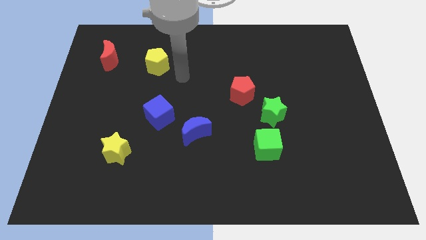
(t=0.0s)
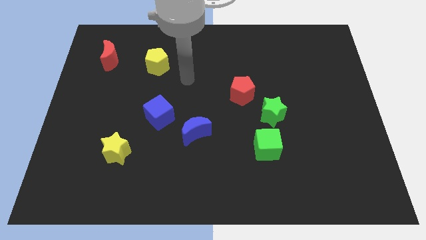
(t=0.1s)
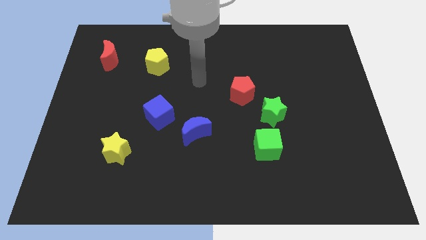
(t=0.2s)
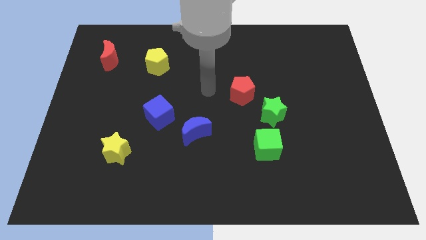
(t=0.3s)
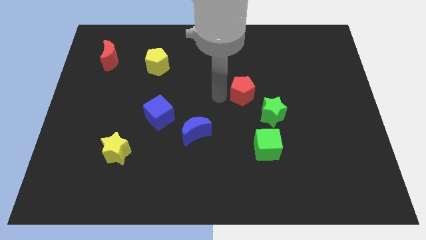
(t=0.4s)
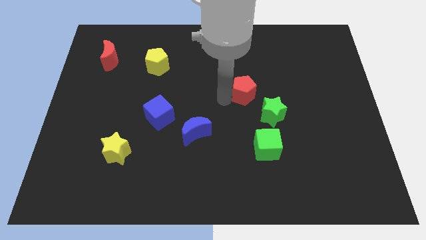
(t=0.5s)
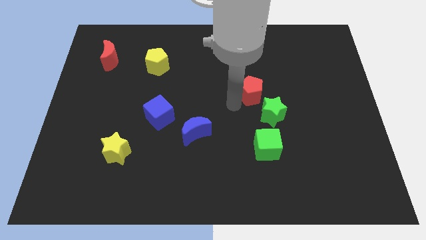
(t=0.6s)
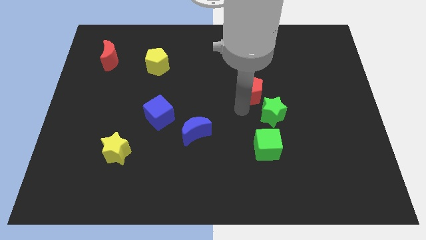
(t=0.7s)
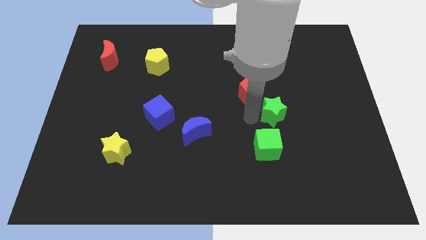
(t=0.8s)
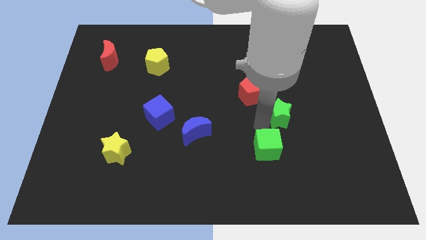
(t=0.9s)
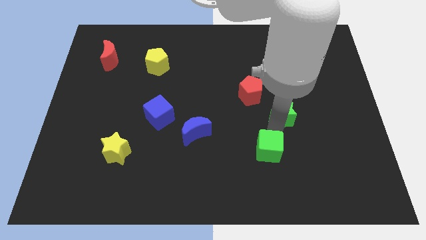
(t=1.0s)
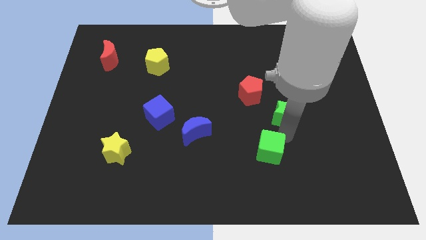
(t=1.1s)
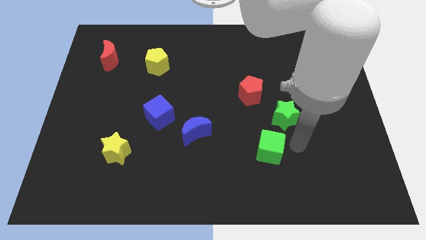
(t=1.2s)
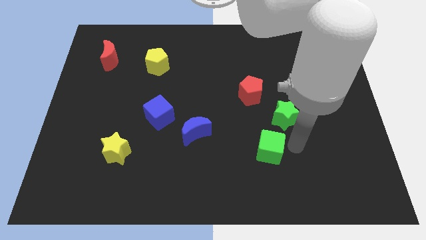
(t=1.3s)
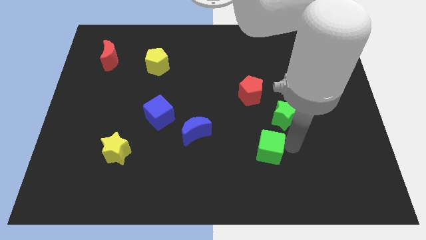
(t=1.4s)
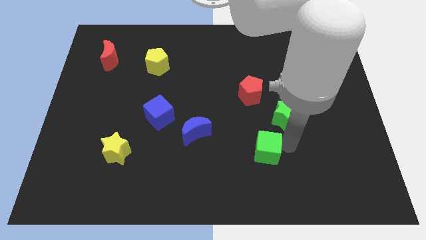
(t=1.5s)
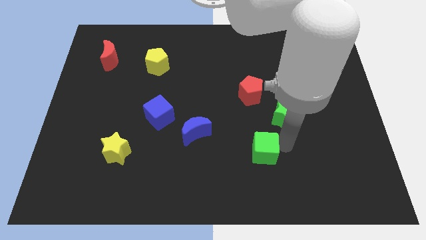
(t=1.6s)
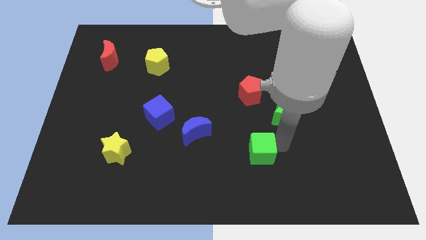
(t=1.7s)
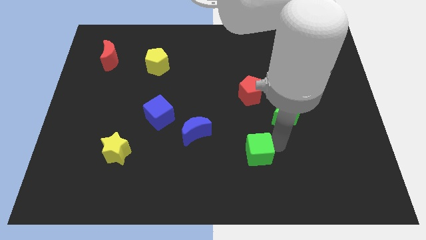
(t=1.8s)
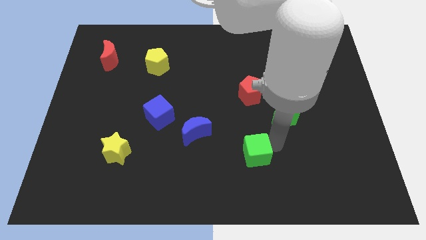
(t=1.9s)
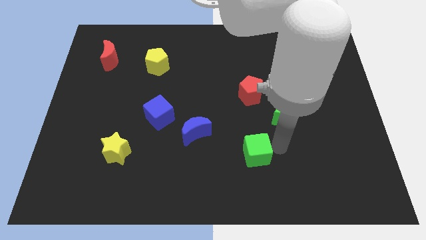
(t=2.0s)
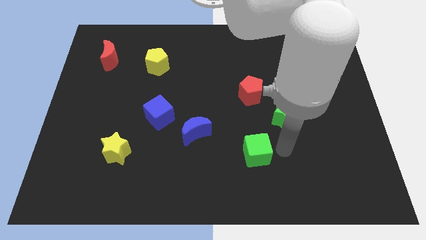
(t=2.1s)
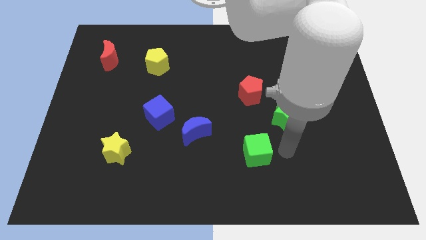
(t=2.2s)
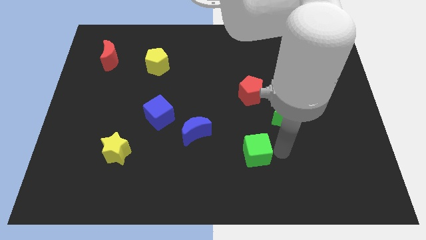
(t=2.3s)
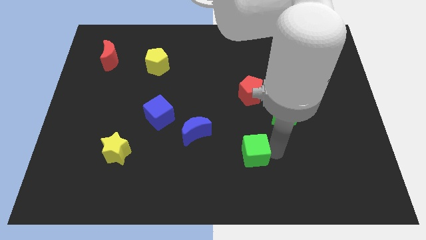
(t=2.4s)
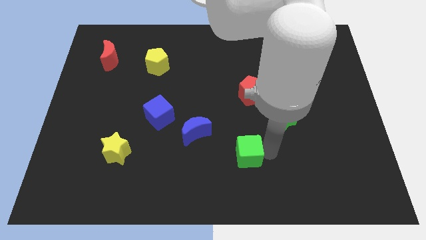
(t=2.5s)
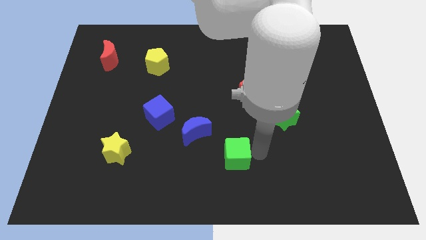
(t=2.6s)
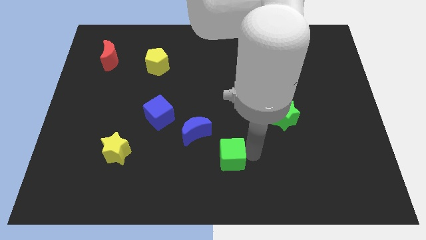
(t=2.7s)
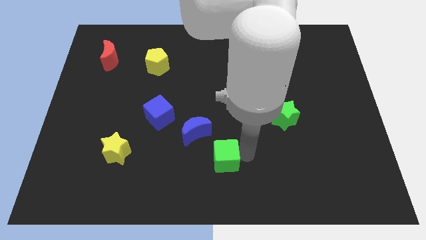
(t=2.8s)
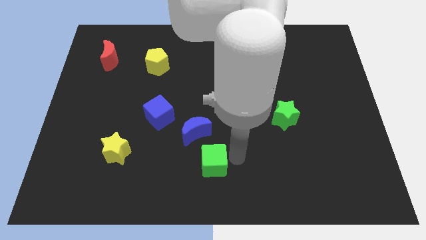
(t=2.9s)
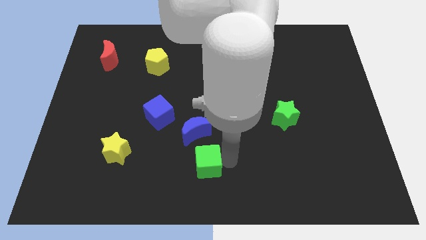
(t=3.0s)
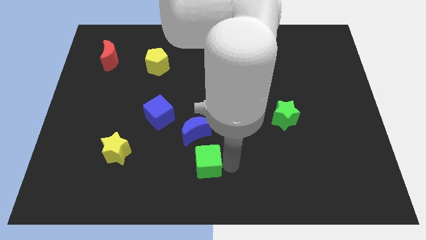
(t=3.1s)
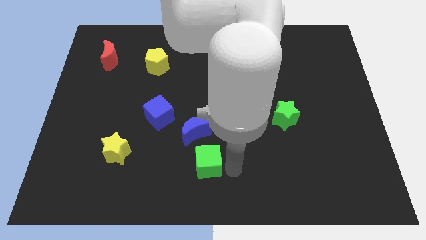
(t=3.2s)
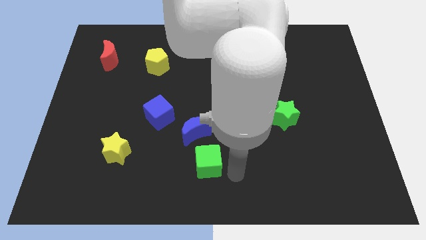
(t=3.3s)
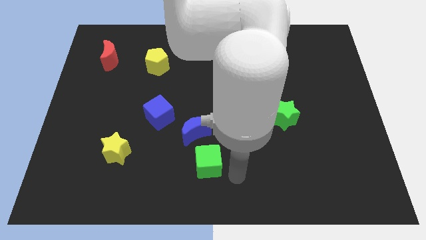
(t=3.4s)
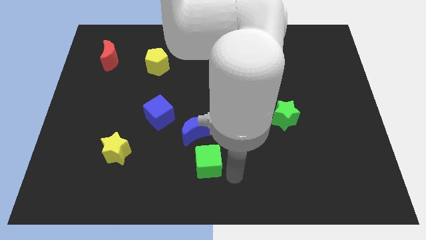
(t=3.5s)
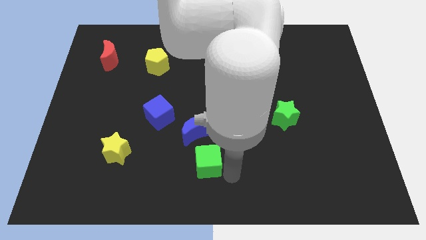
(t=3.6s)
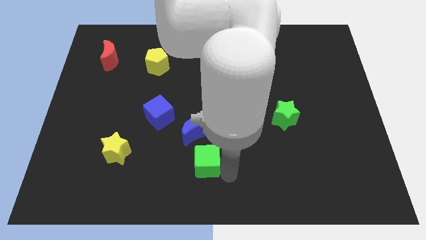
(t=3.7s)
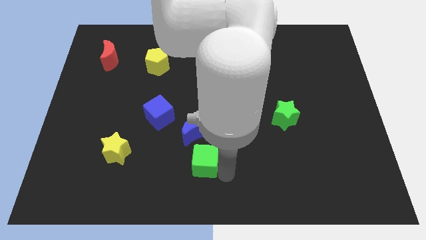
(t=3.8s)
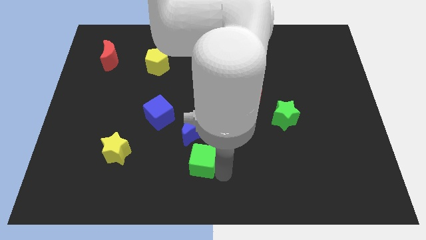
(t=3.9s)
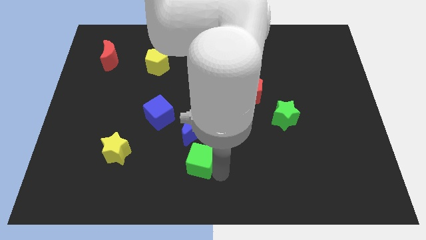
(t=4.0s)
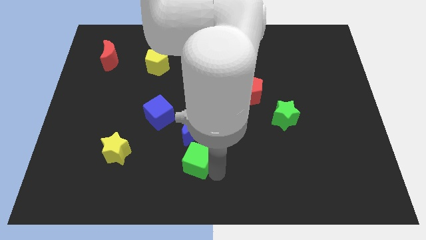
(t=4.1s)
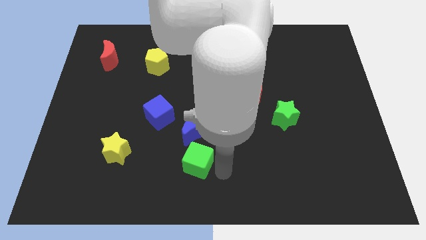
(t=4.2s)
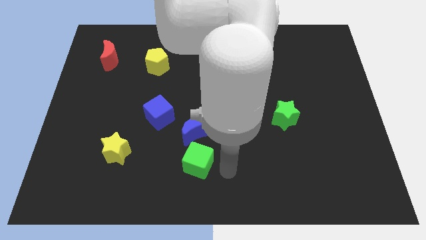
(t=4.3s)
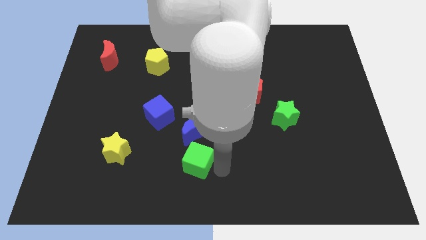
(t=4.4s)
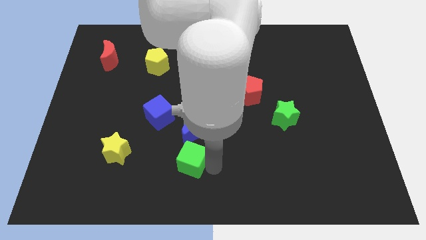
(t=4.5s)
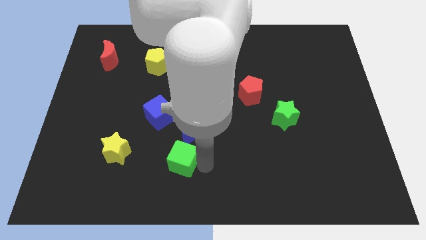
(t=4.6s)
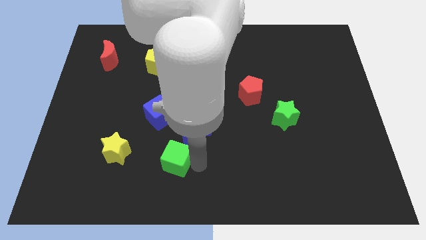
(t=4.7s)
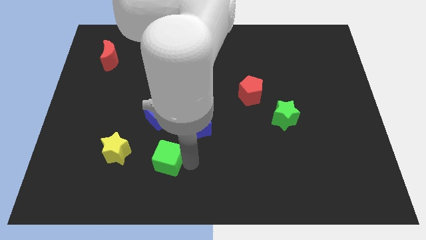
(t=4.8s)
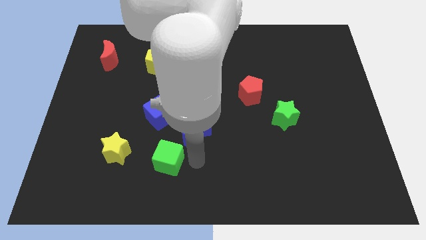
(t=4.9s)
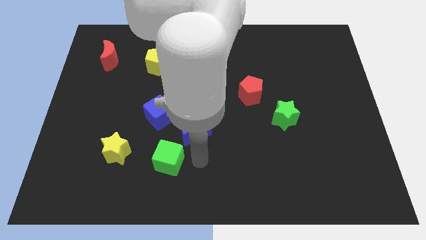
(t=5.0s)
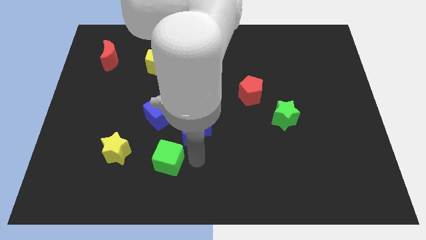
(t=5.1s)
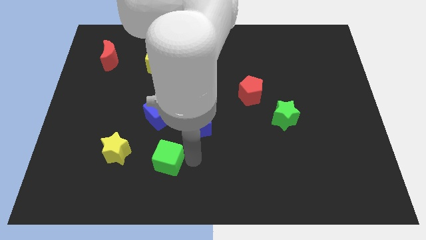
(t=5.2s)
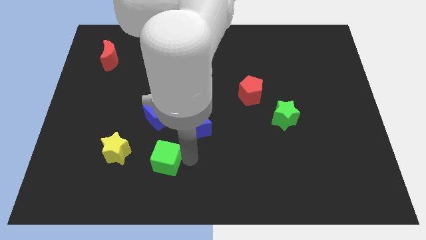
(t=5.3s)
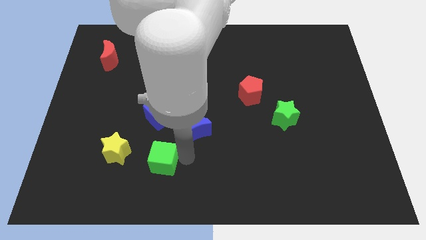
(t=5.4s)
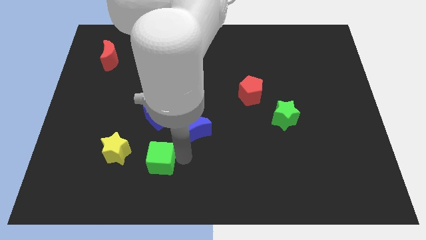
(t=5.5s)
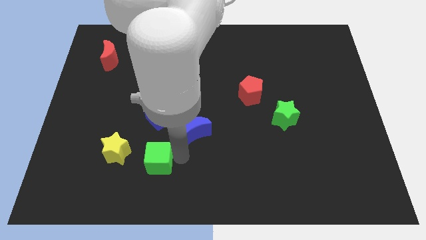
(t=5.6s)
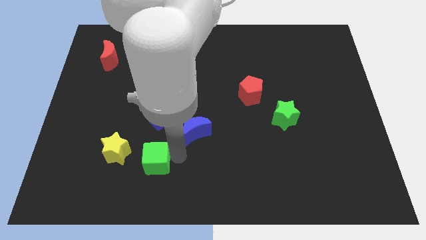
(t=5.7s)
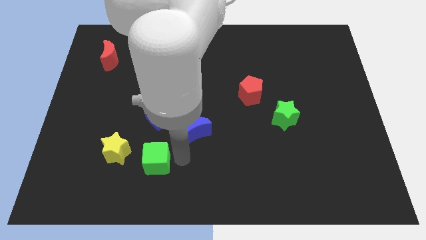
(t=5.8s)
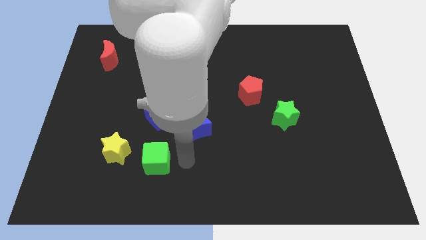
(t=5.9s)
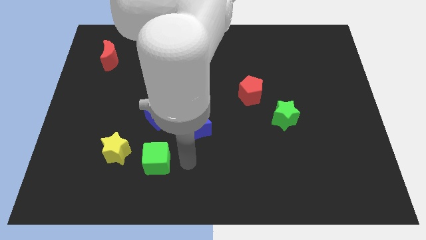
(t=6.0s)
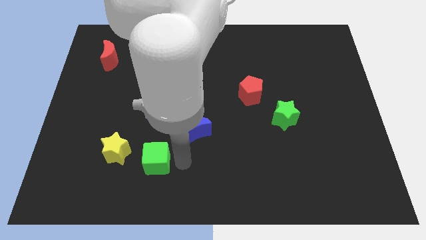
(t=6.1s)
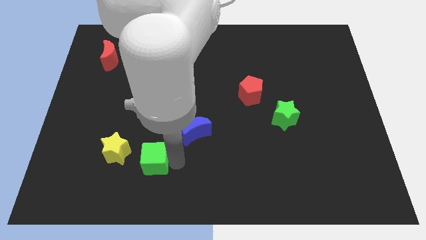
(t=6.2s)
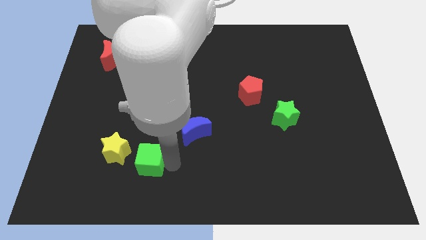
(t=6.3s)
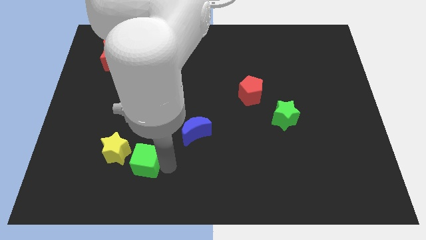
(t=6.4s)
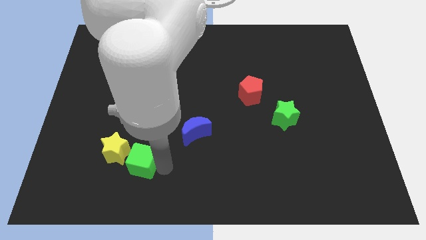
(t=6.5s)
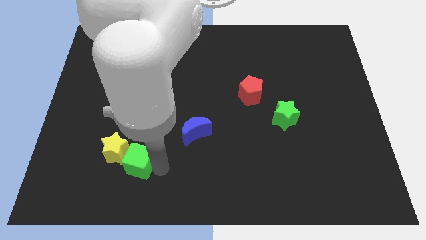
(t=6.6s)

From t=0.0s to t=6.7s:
slide the green cube towards the yellow star
